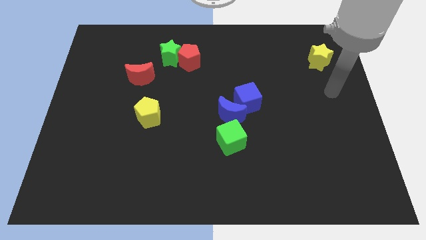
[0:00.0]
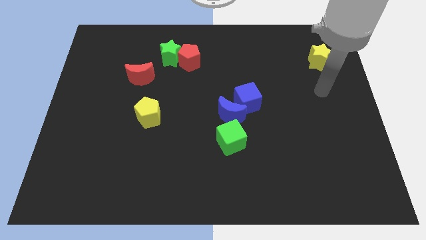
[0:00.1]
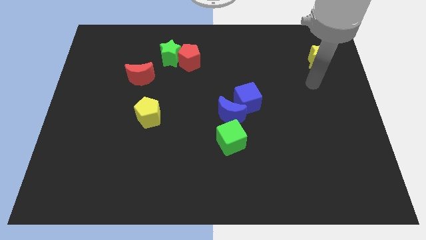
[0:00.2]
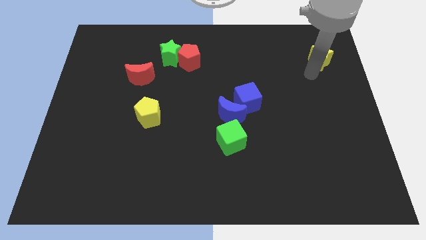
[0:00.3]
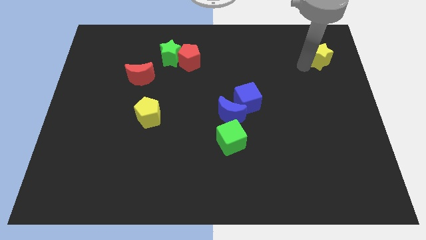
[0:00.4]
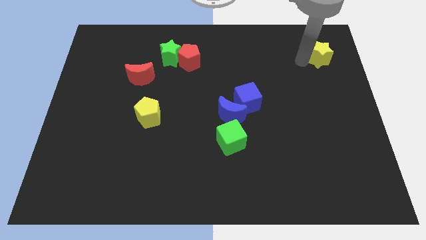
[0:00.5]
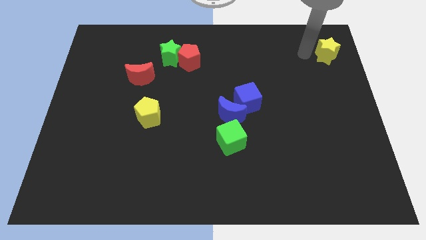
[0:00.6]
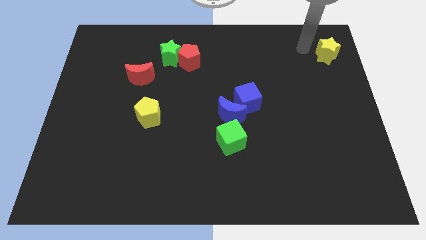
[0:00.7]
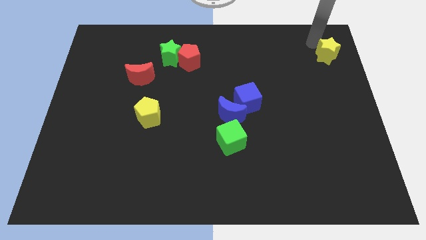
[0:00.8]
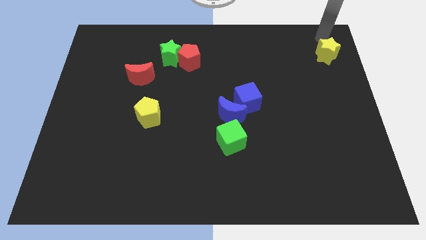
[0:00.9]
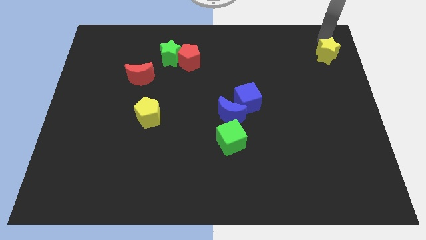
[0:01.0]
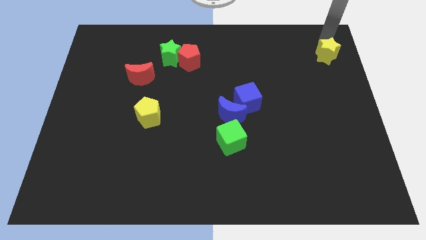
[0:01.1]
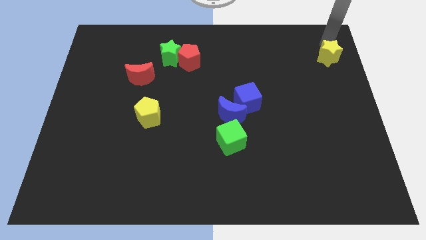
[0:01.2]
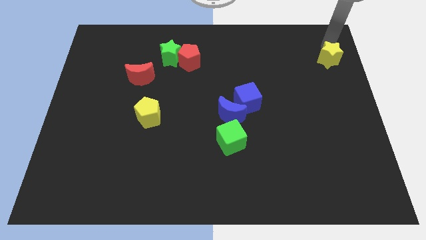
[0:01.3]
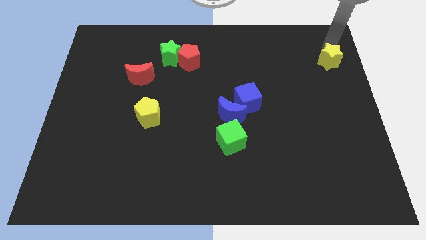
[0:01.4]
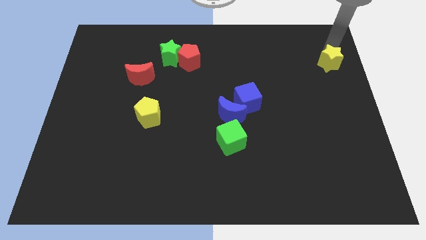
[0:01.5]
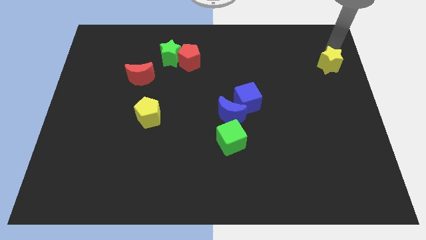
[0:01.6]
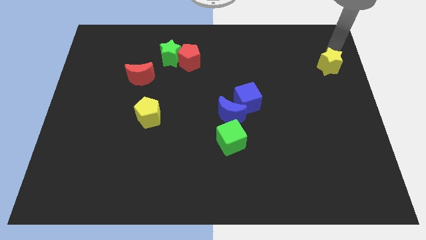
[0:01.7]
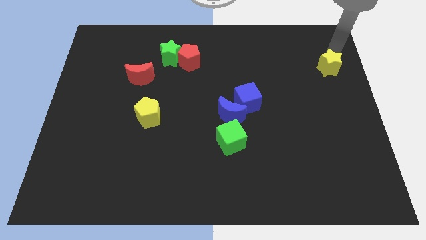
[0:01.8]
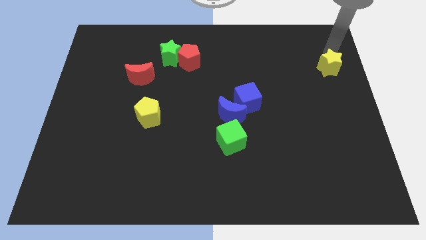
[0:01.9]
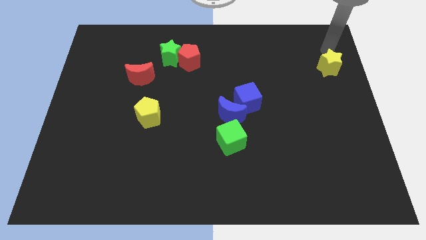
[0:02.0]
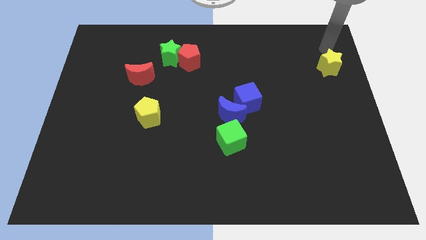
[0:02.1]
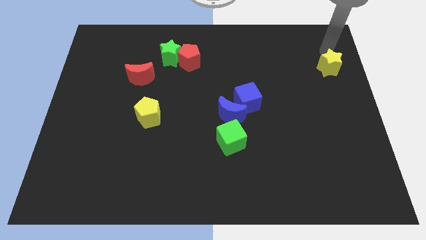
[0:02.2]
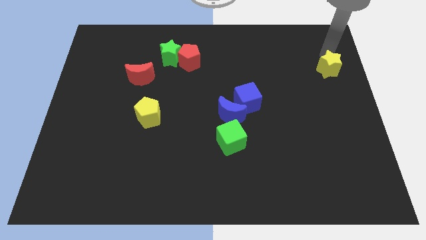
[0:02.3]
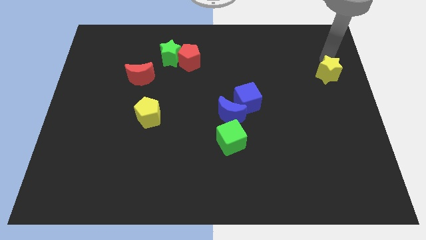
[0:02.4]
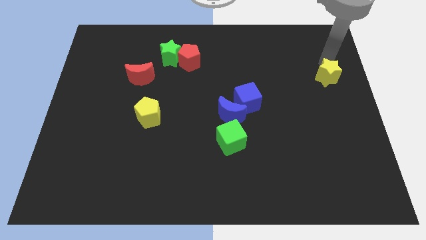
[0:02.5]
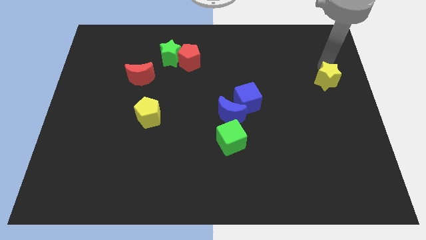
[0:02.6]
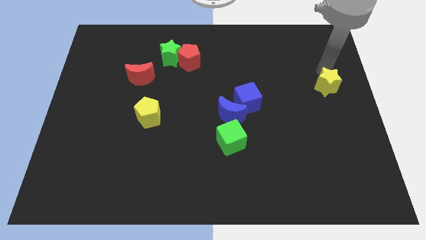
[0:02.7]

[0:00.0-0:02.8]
slightly move the yellow star downwards

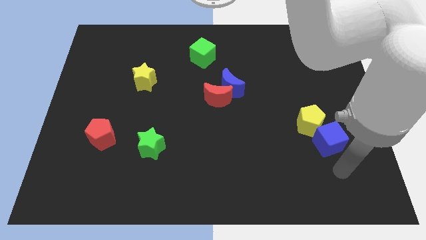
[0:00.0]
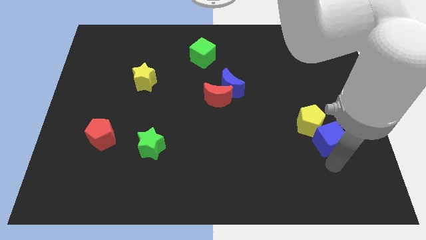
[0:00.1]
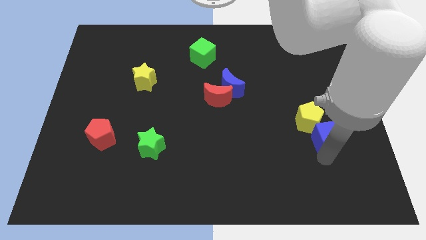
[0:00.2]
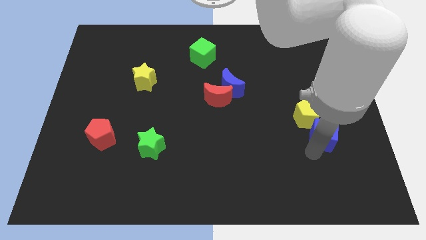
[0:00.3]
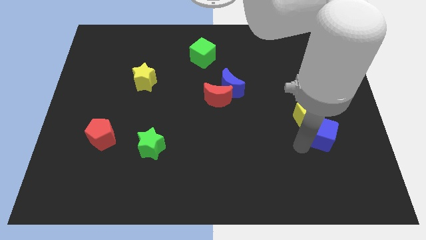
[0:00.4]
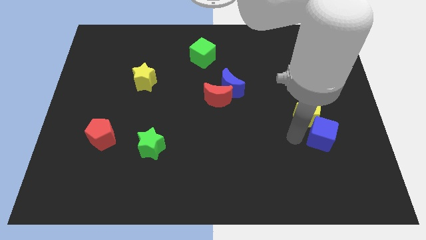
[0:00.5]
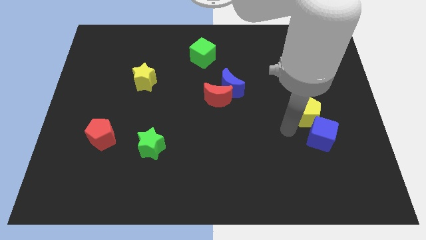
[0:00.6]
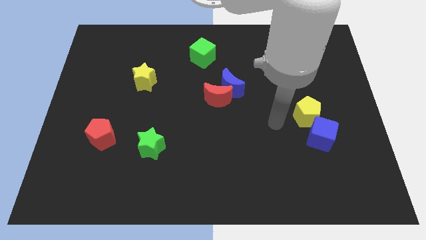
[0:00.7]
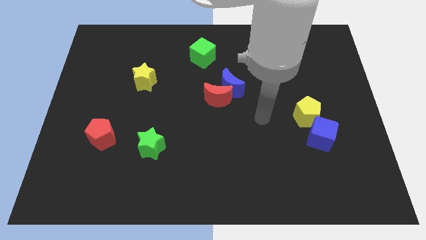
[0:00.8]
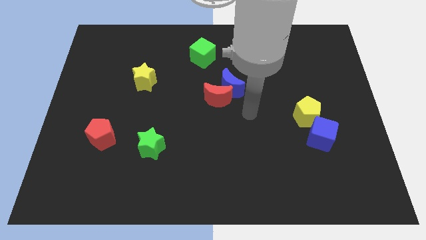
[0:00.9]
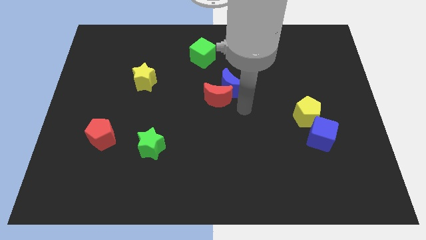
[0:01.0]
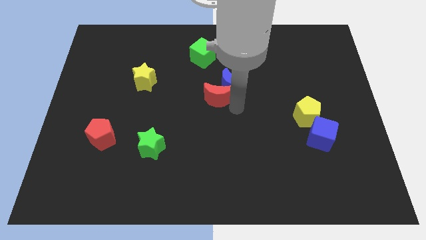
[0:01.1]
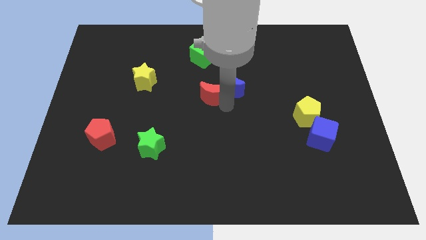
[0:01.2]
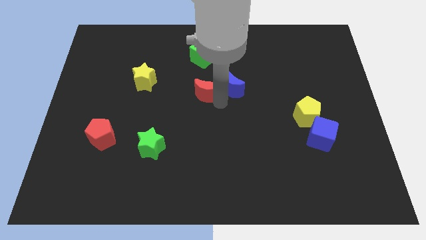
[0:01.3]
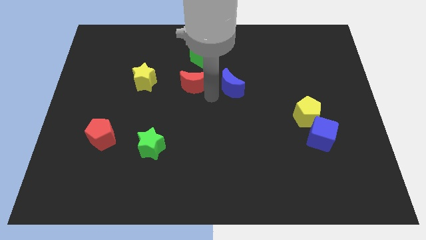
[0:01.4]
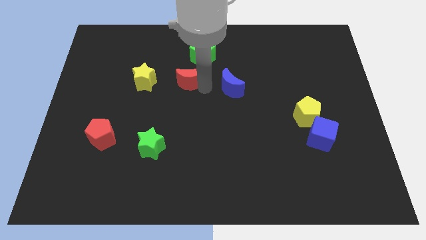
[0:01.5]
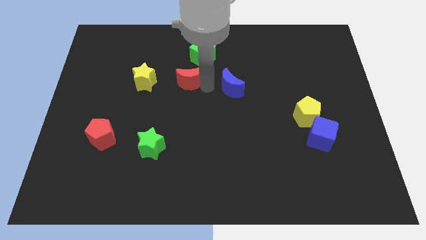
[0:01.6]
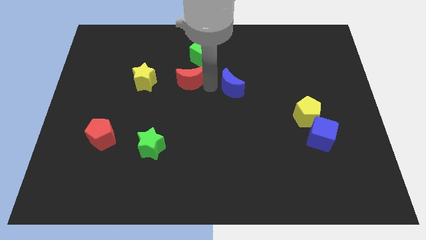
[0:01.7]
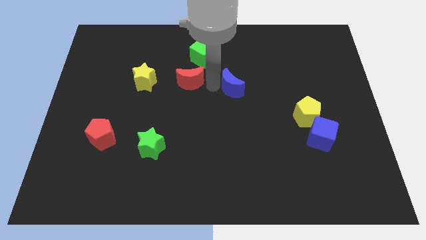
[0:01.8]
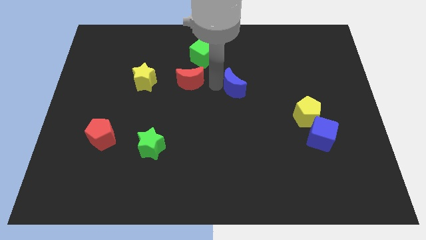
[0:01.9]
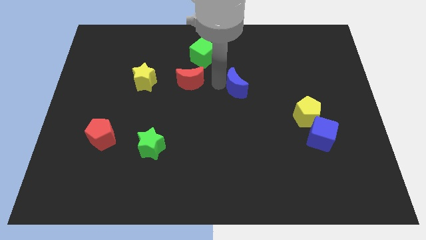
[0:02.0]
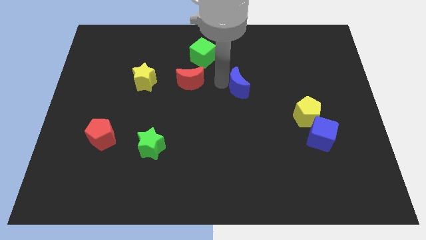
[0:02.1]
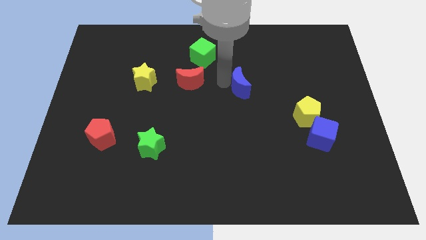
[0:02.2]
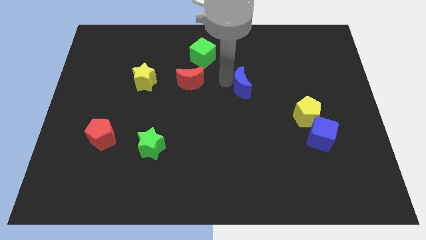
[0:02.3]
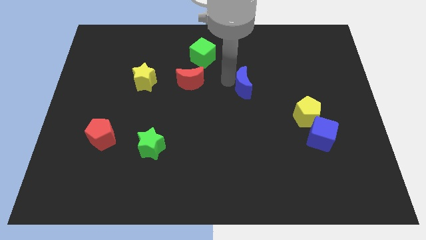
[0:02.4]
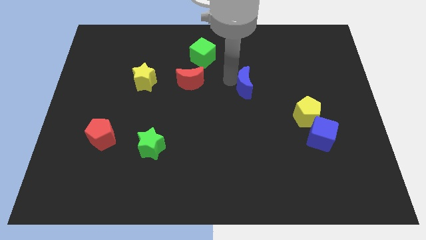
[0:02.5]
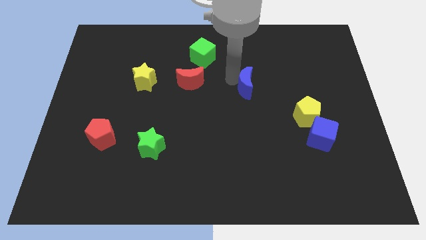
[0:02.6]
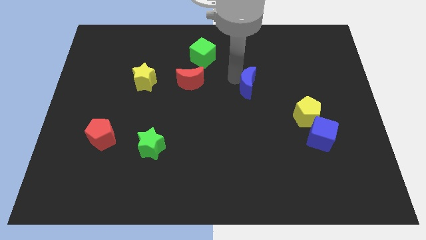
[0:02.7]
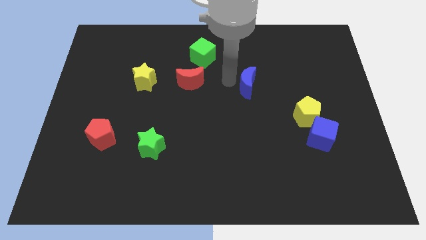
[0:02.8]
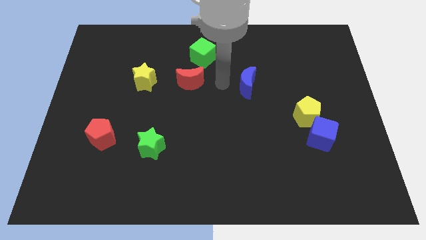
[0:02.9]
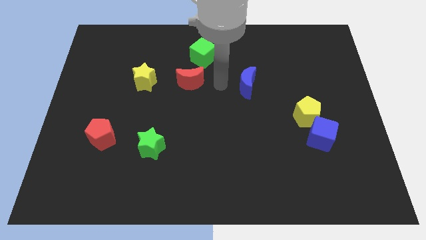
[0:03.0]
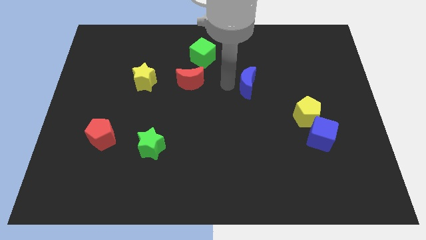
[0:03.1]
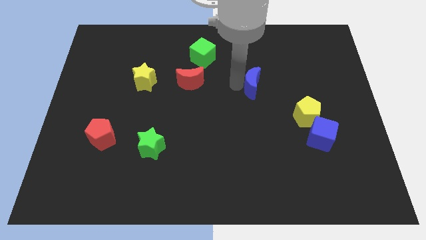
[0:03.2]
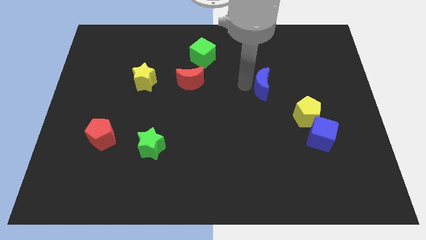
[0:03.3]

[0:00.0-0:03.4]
push the blue moon a bit right

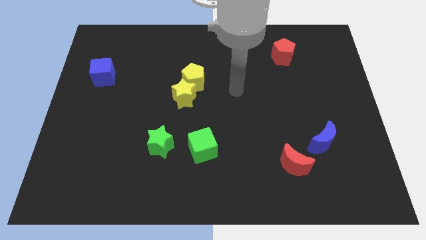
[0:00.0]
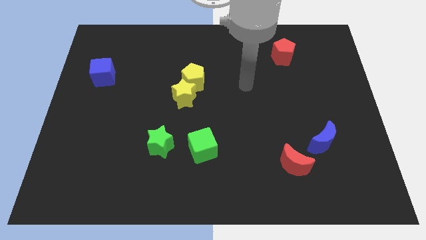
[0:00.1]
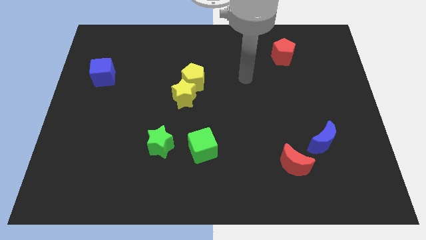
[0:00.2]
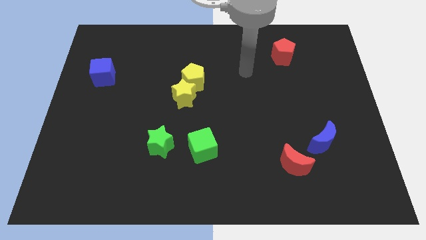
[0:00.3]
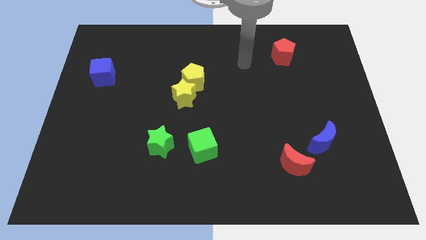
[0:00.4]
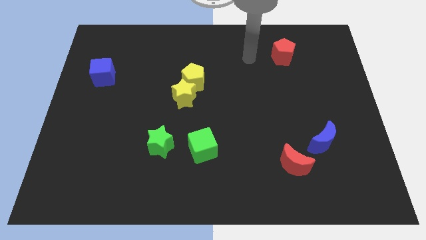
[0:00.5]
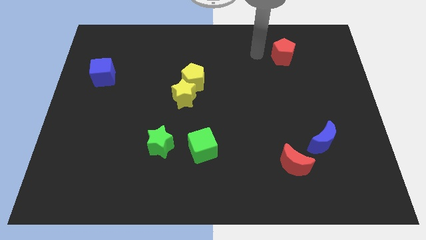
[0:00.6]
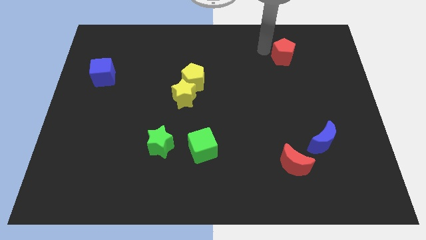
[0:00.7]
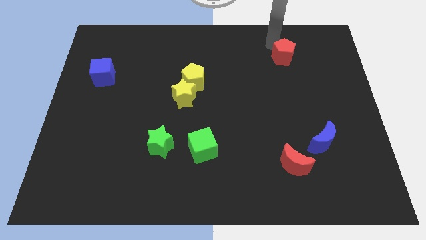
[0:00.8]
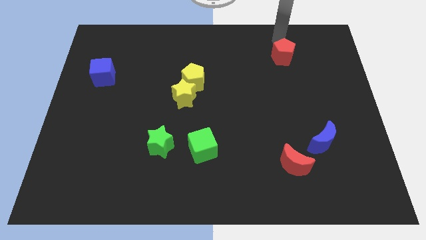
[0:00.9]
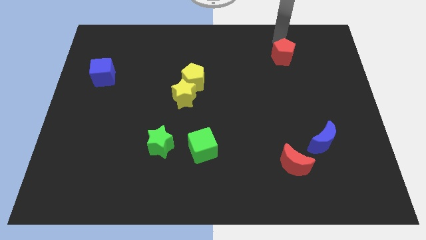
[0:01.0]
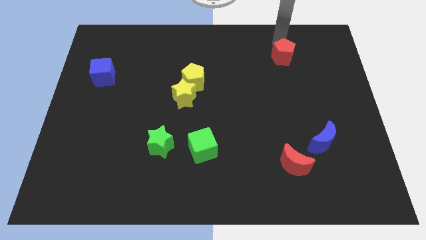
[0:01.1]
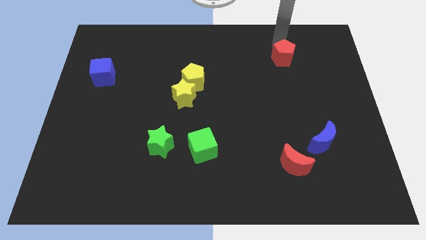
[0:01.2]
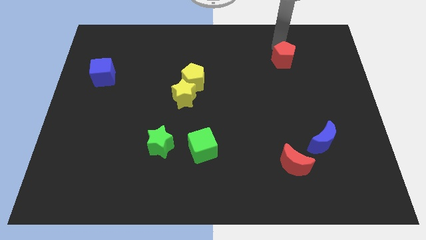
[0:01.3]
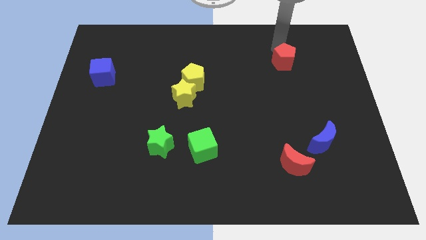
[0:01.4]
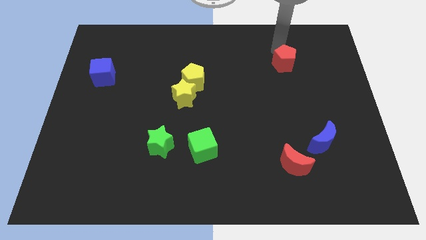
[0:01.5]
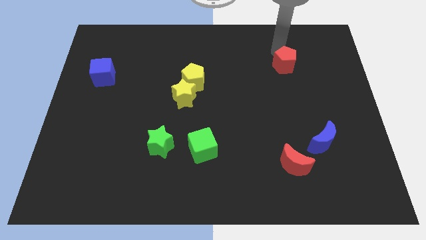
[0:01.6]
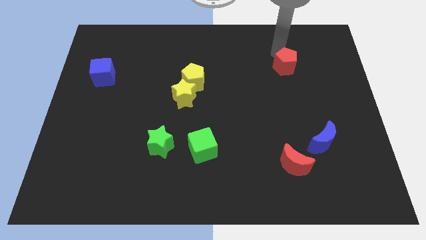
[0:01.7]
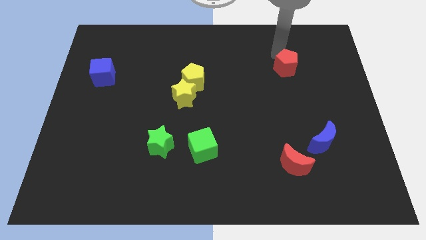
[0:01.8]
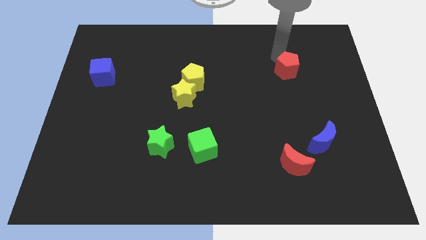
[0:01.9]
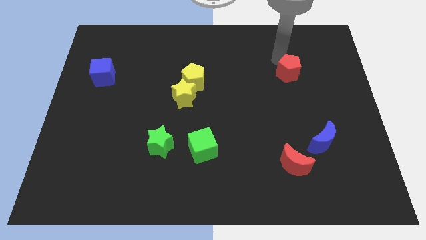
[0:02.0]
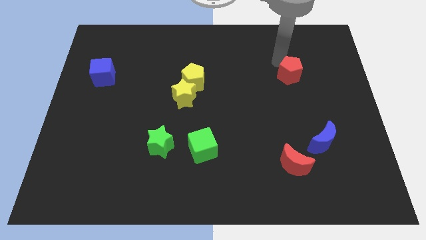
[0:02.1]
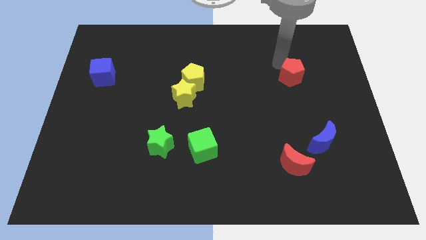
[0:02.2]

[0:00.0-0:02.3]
move the red pentagon a little down
